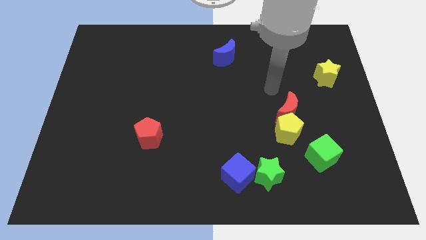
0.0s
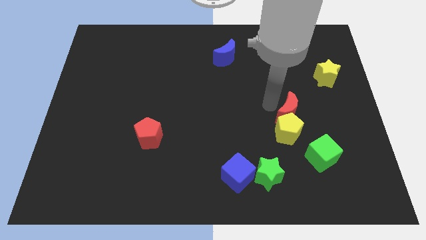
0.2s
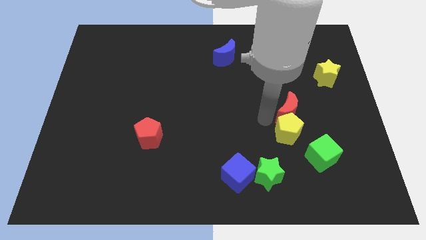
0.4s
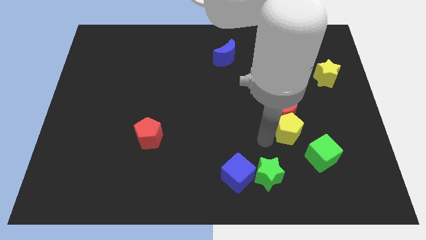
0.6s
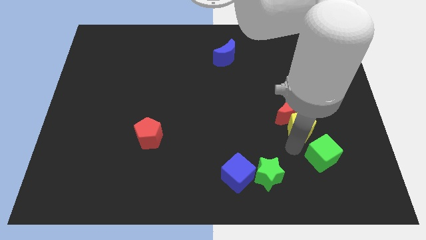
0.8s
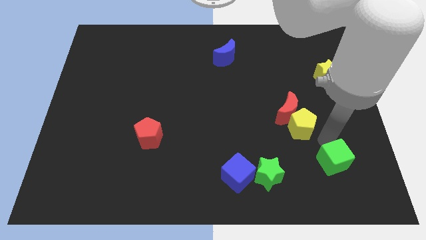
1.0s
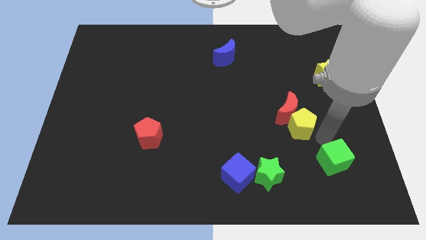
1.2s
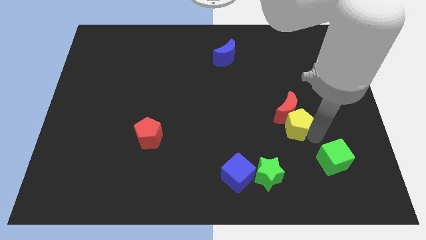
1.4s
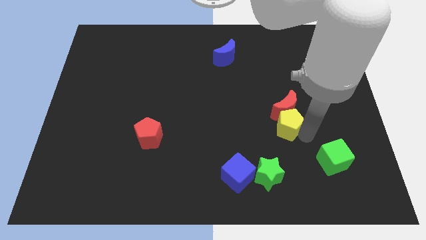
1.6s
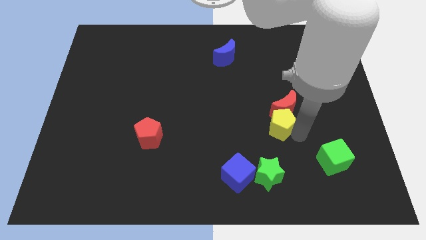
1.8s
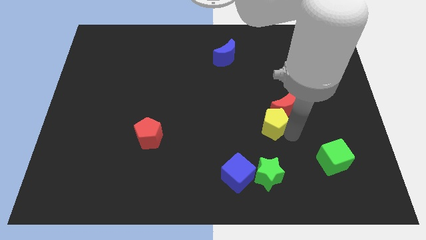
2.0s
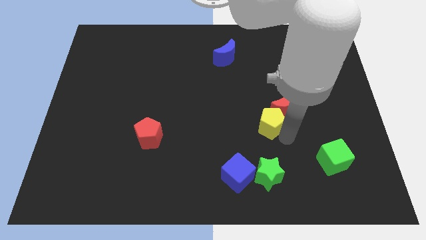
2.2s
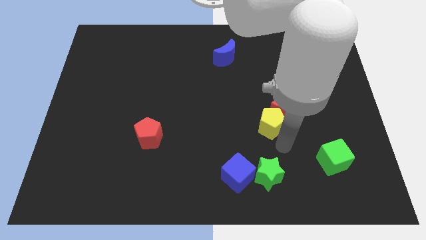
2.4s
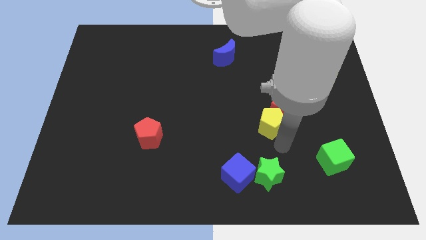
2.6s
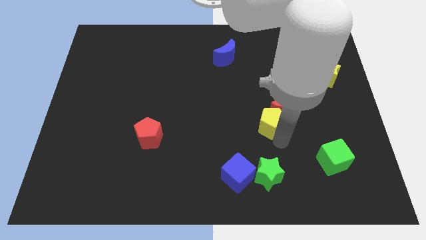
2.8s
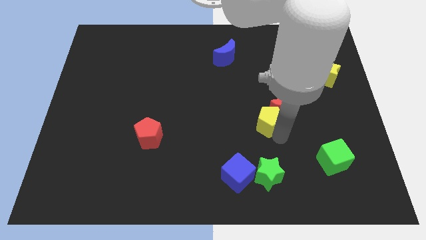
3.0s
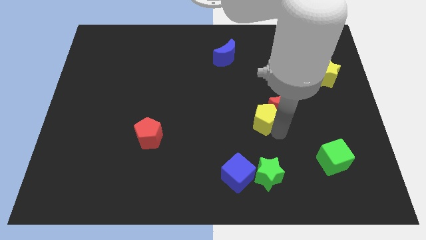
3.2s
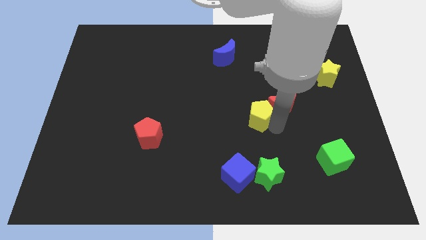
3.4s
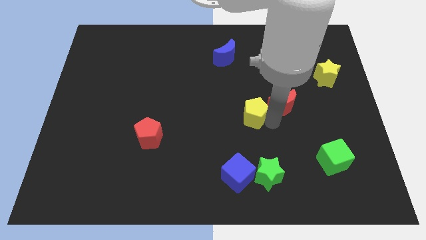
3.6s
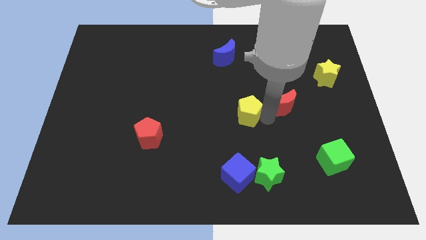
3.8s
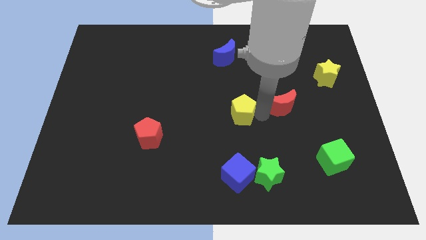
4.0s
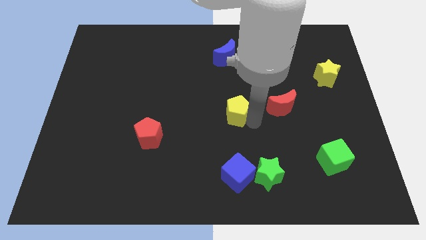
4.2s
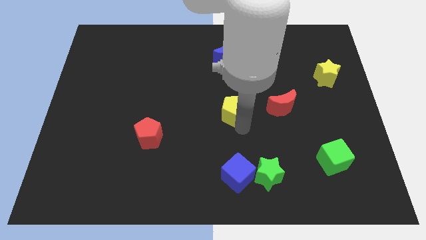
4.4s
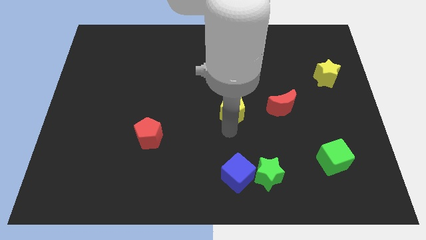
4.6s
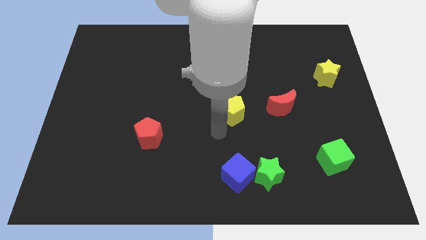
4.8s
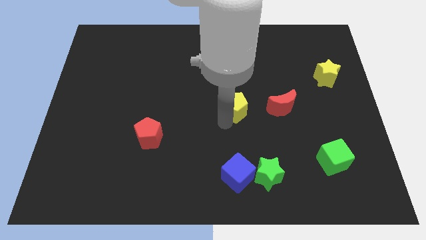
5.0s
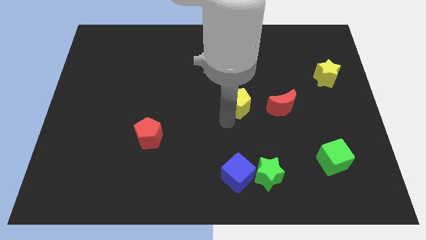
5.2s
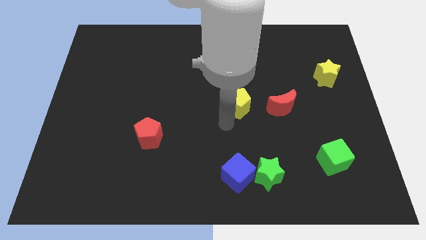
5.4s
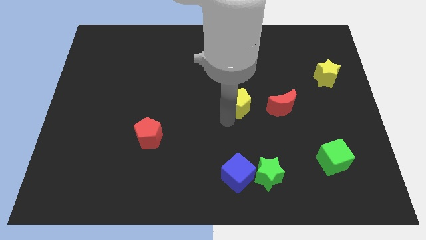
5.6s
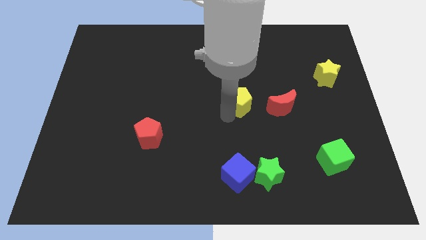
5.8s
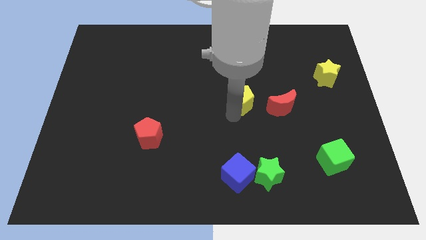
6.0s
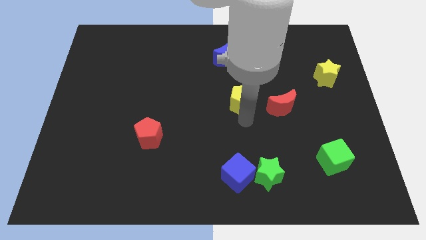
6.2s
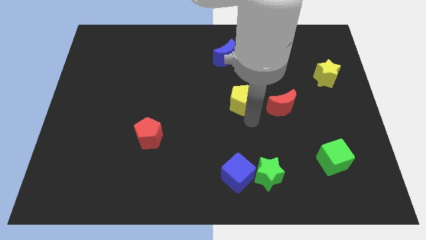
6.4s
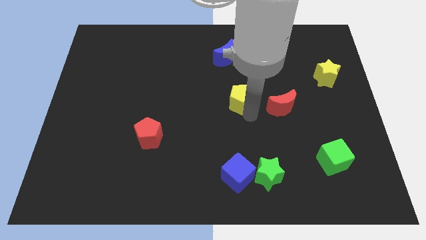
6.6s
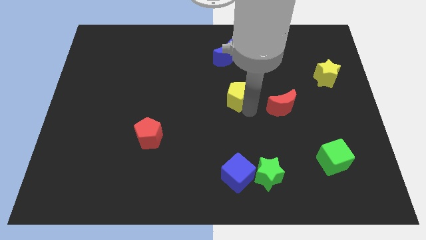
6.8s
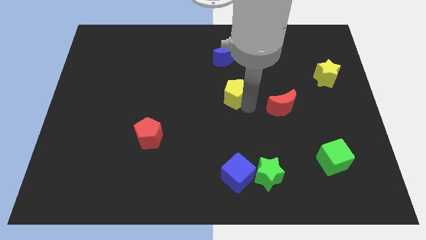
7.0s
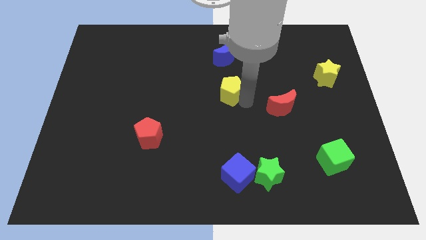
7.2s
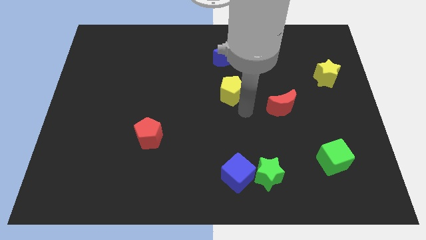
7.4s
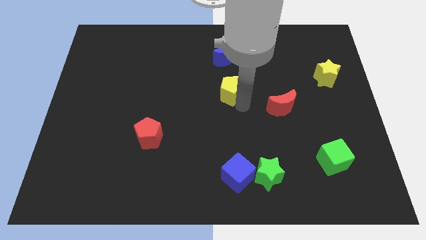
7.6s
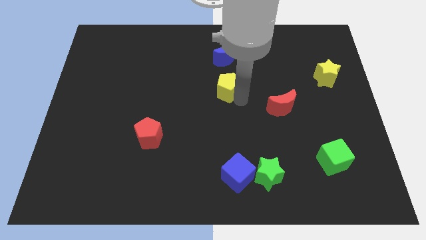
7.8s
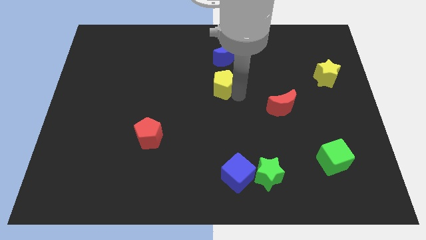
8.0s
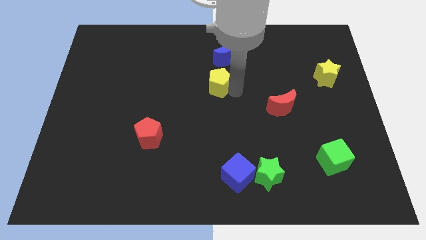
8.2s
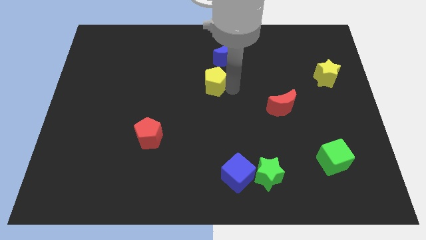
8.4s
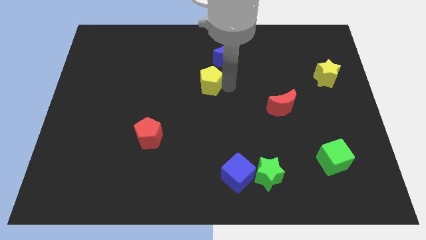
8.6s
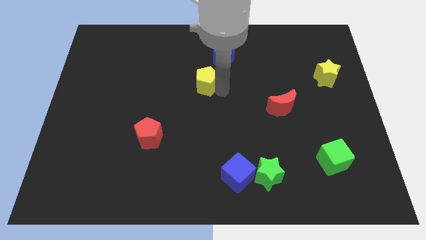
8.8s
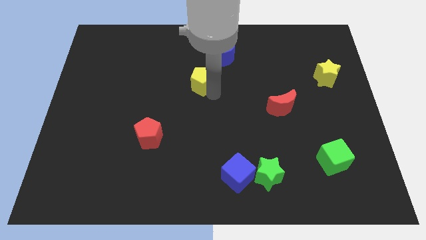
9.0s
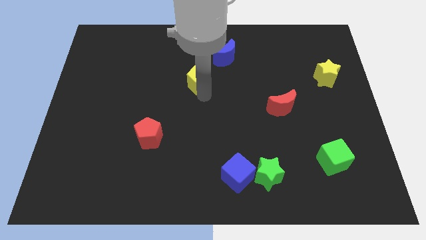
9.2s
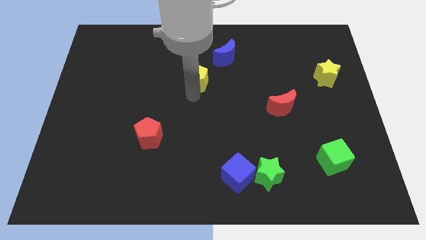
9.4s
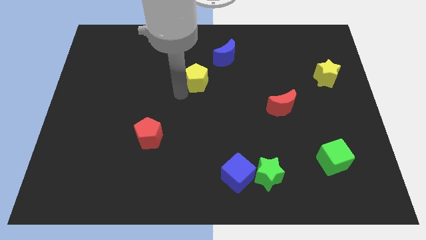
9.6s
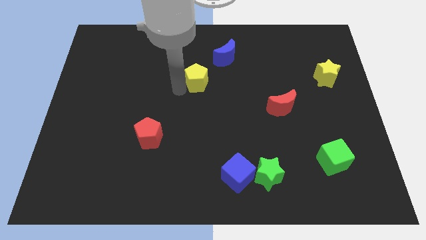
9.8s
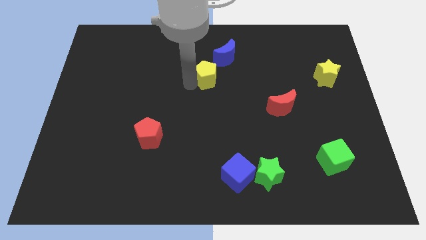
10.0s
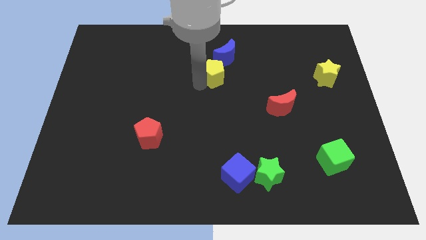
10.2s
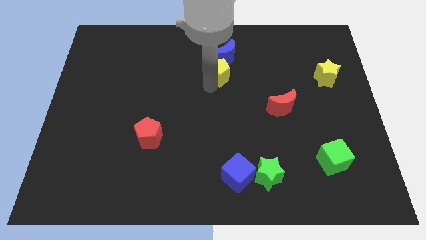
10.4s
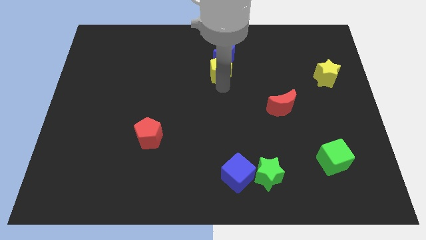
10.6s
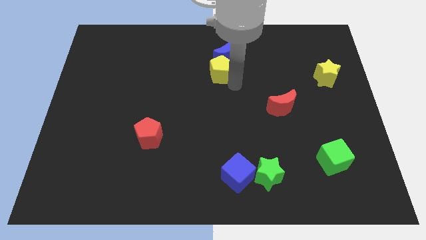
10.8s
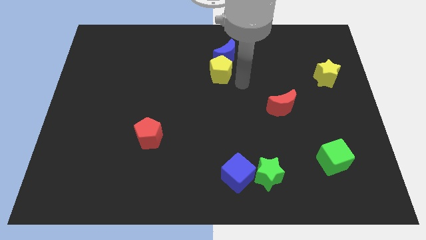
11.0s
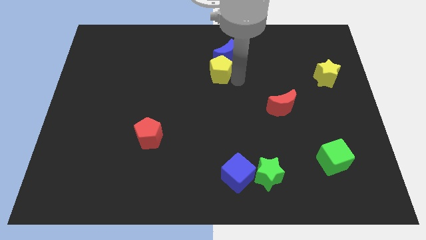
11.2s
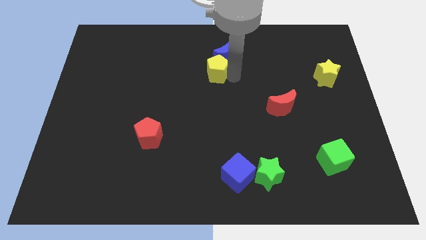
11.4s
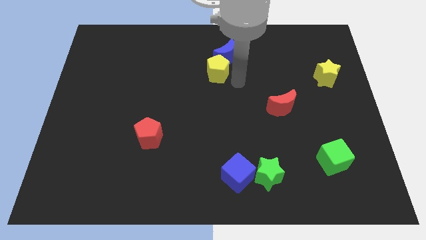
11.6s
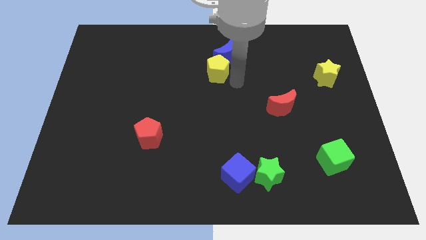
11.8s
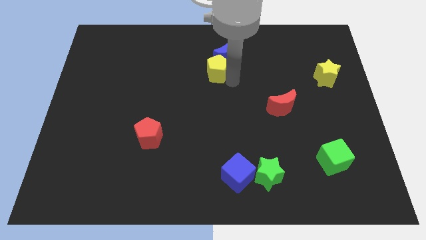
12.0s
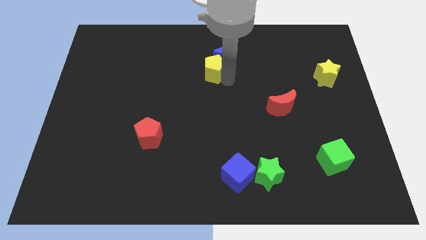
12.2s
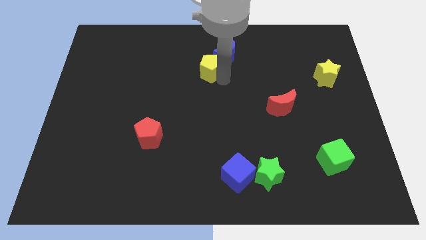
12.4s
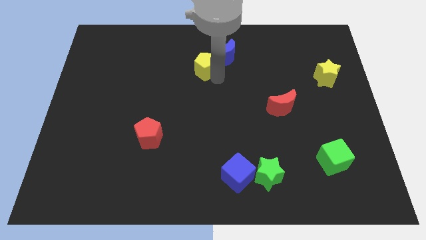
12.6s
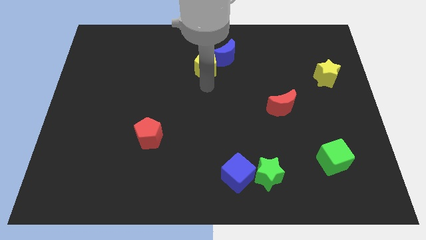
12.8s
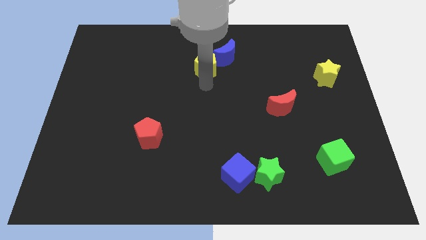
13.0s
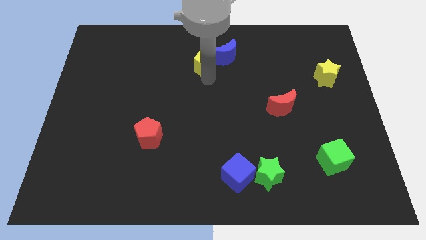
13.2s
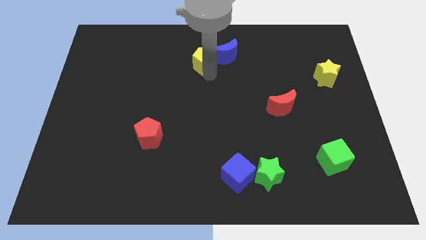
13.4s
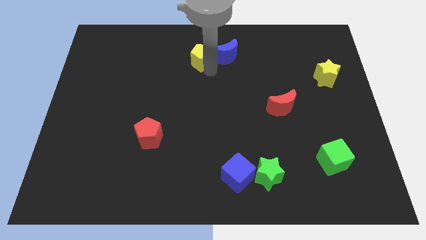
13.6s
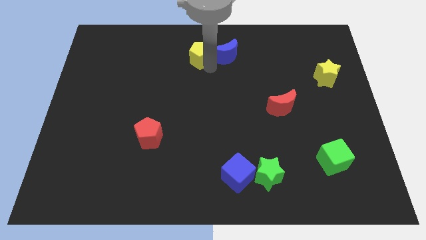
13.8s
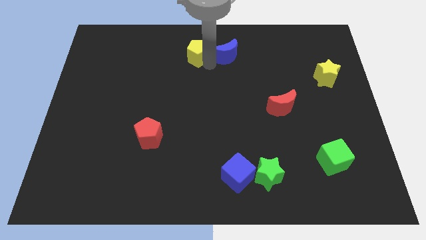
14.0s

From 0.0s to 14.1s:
put the yellow pentagon to the top
